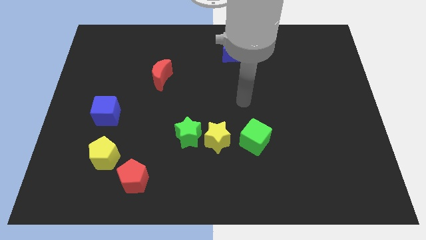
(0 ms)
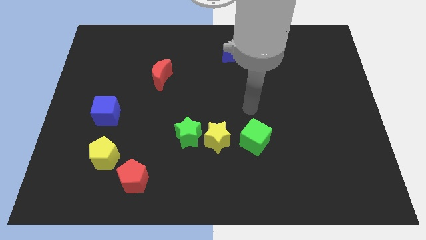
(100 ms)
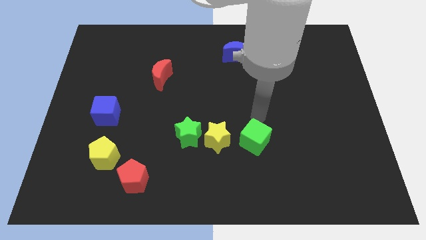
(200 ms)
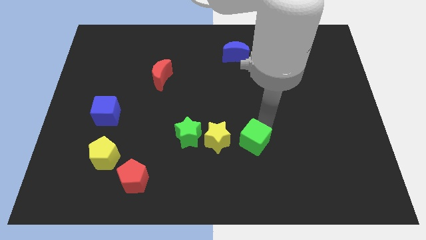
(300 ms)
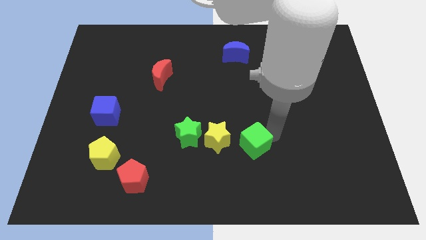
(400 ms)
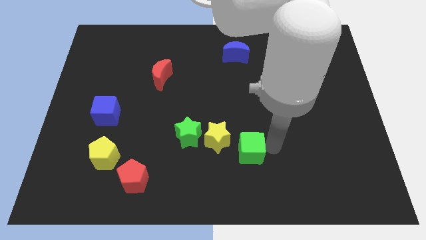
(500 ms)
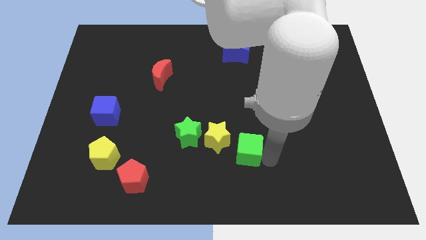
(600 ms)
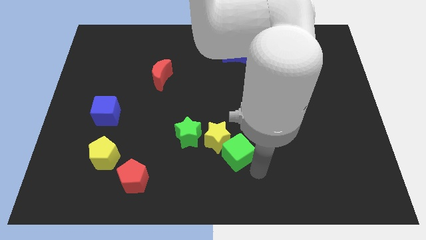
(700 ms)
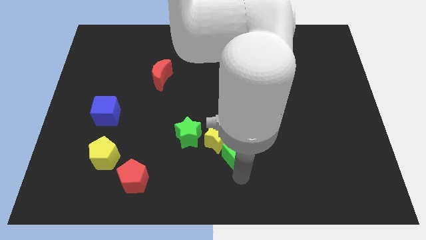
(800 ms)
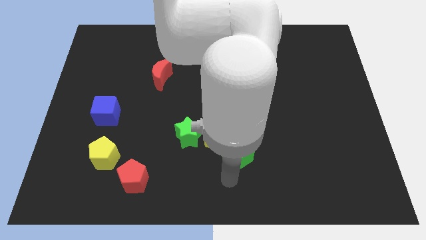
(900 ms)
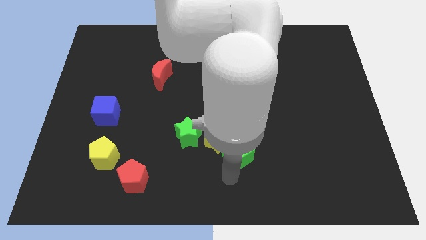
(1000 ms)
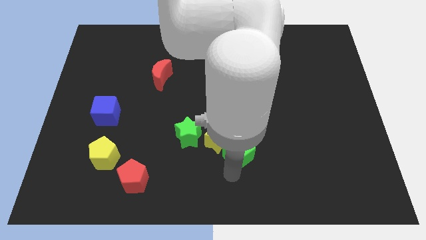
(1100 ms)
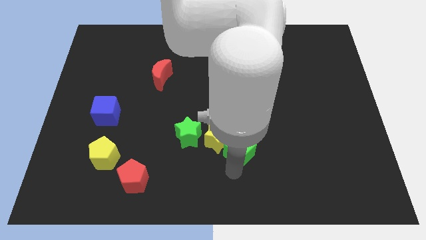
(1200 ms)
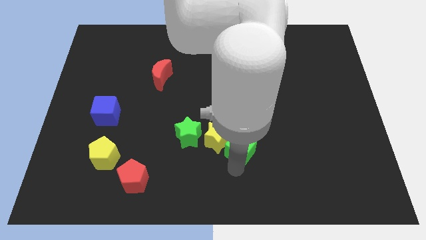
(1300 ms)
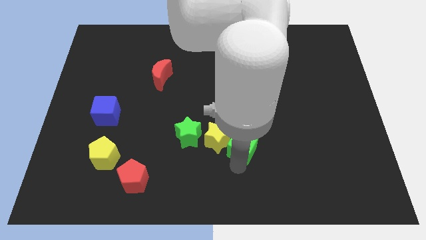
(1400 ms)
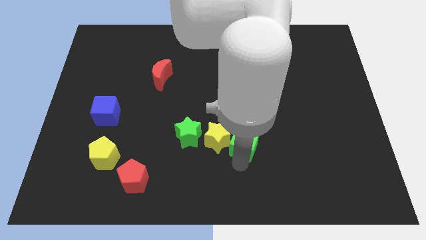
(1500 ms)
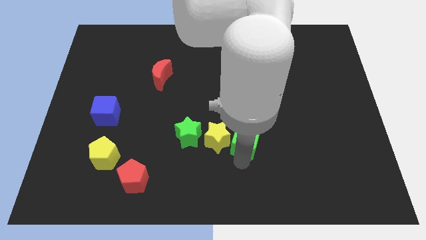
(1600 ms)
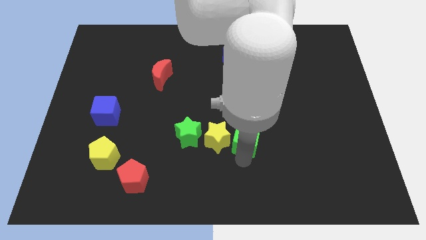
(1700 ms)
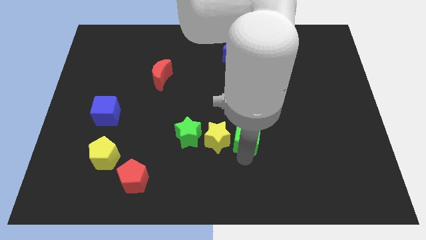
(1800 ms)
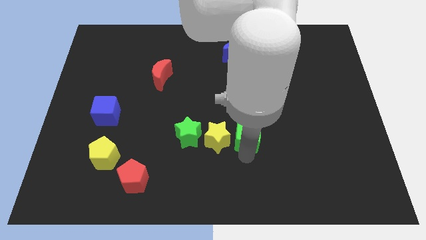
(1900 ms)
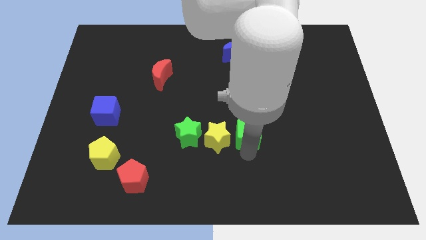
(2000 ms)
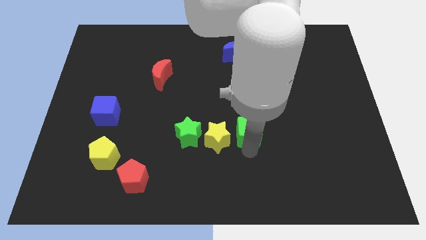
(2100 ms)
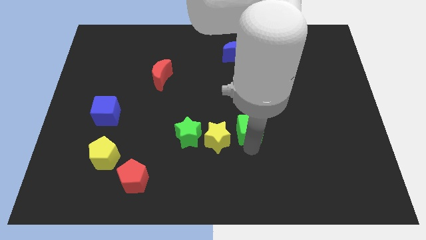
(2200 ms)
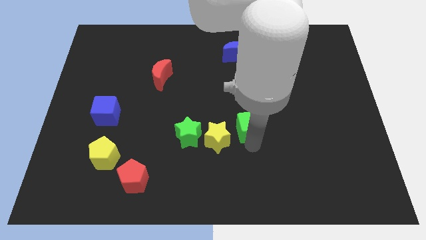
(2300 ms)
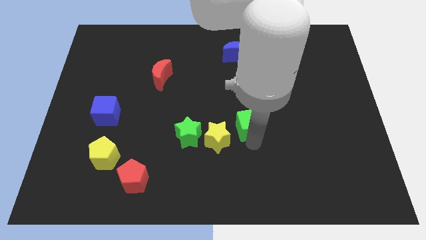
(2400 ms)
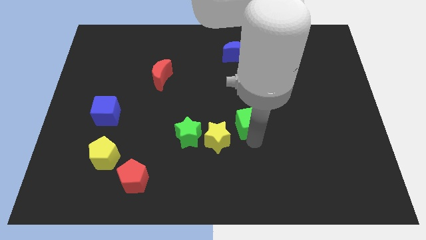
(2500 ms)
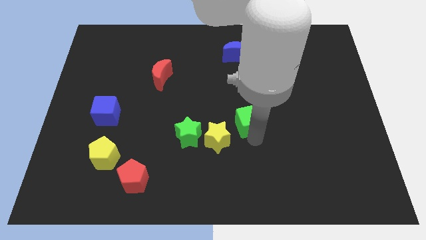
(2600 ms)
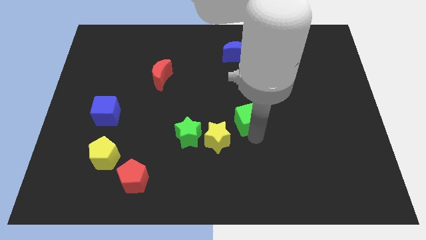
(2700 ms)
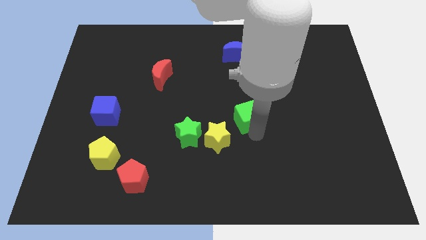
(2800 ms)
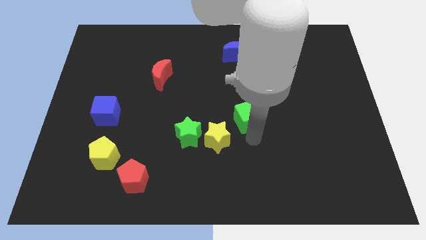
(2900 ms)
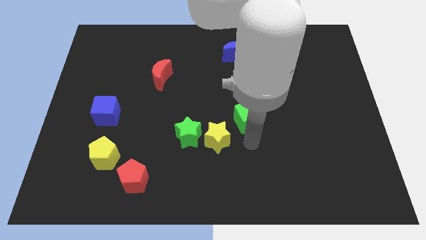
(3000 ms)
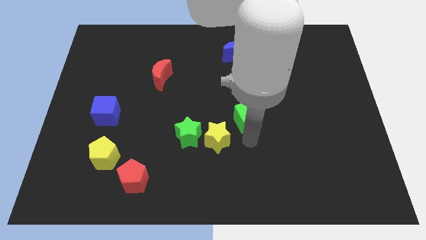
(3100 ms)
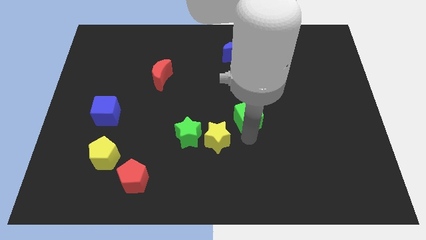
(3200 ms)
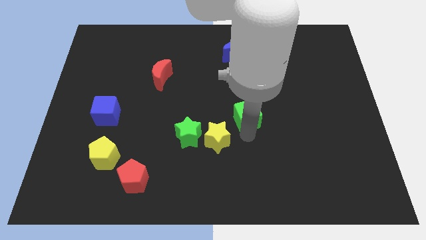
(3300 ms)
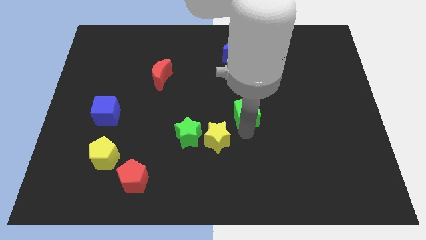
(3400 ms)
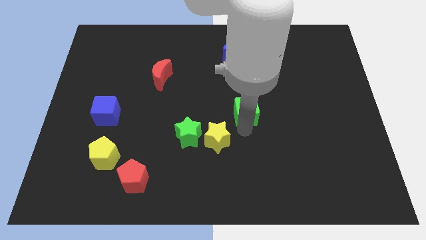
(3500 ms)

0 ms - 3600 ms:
push the green cube upwards a little bit

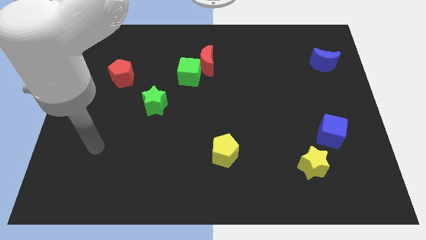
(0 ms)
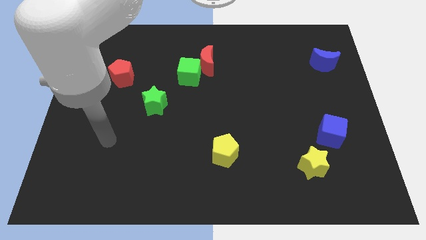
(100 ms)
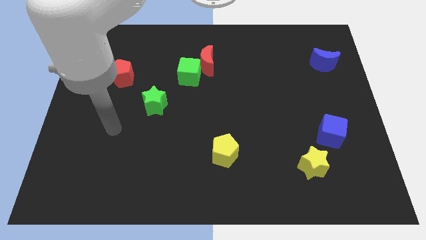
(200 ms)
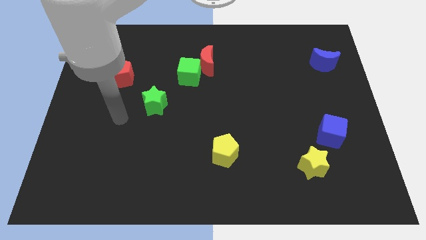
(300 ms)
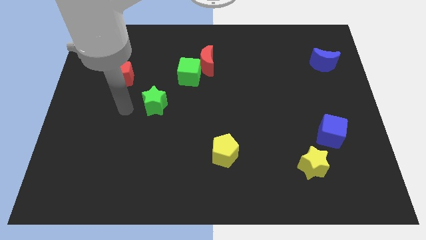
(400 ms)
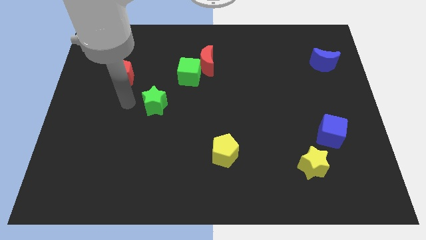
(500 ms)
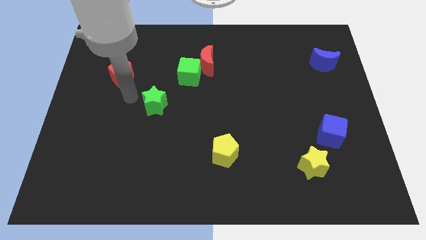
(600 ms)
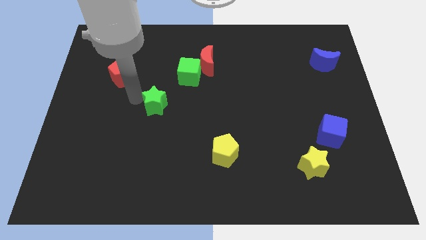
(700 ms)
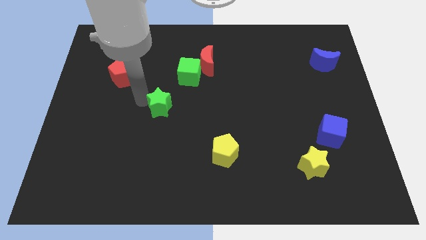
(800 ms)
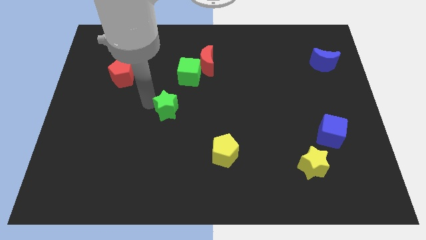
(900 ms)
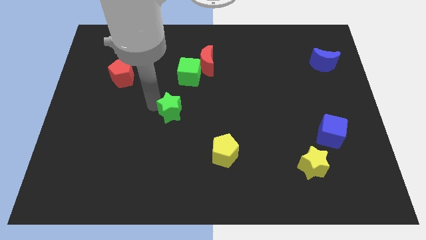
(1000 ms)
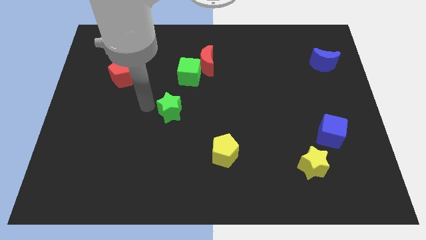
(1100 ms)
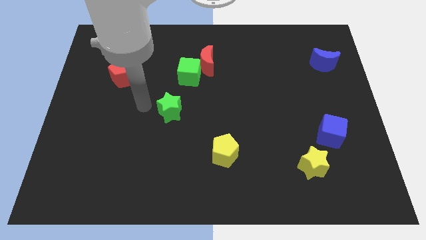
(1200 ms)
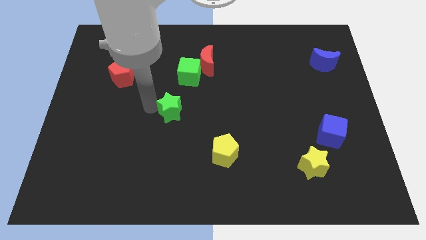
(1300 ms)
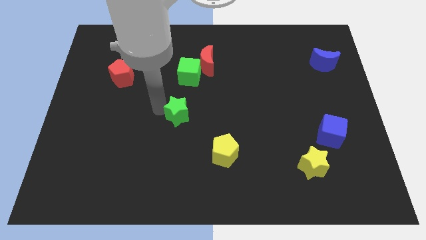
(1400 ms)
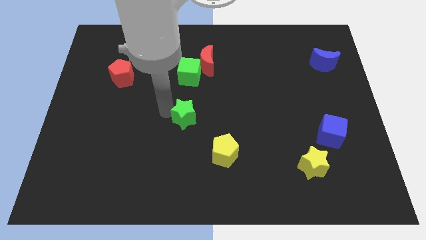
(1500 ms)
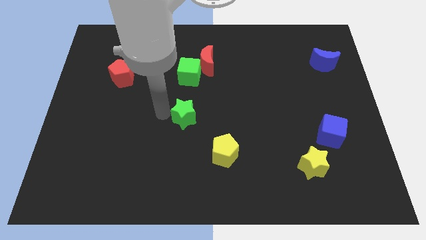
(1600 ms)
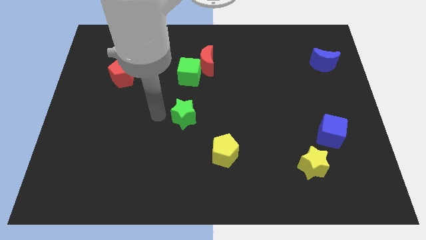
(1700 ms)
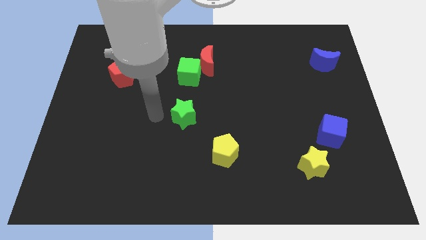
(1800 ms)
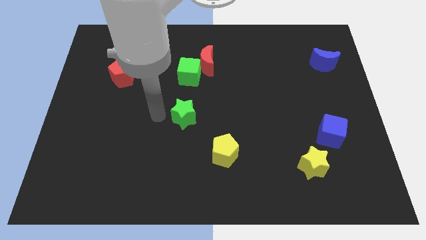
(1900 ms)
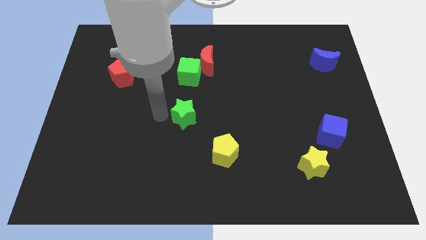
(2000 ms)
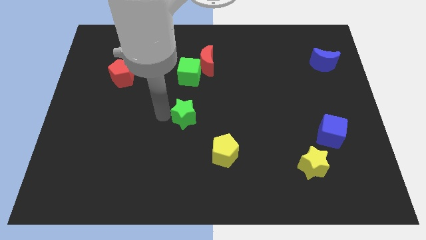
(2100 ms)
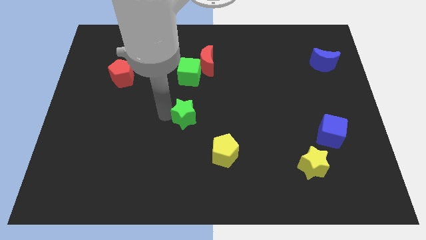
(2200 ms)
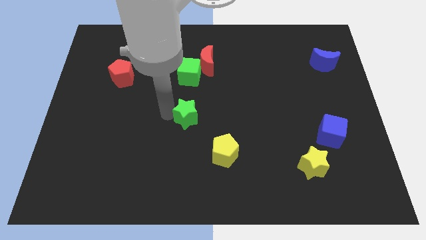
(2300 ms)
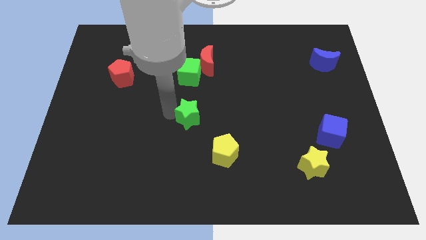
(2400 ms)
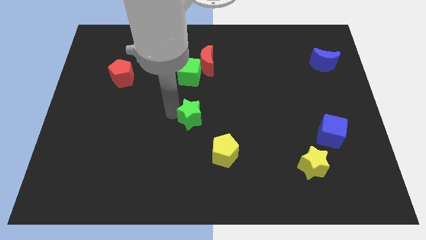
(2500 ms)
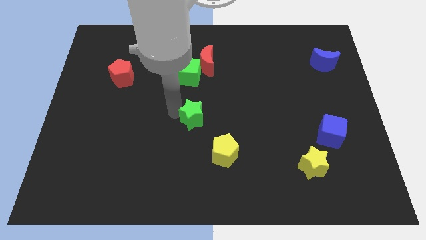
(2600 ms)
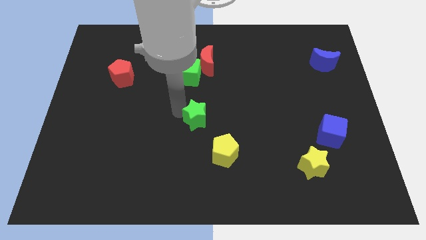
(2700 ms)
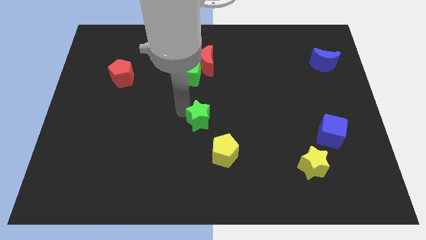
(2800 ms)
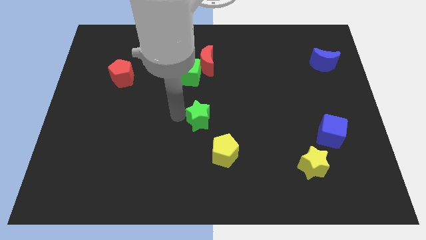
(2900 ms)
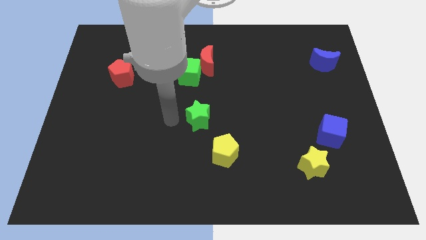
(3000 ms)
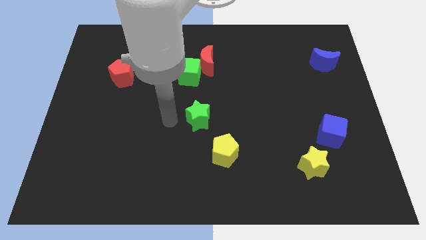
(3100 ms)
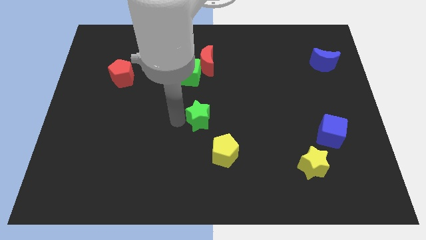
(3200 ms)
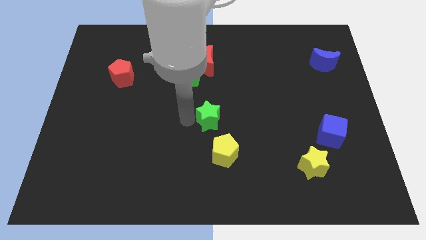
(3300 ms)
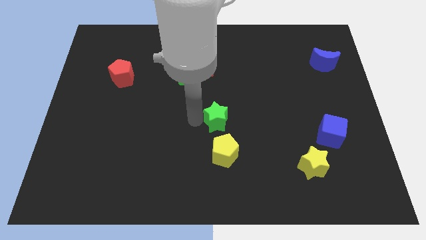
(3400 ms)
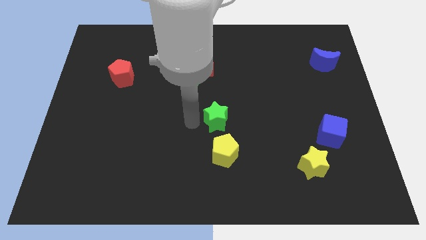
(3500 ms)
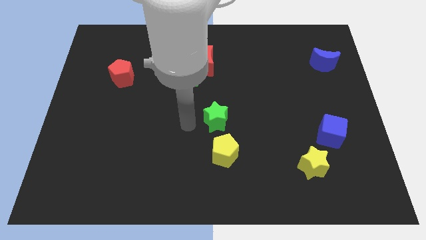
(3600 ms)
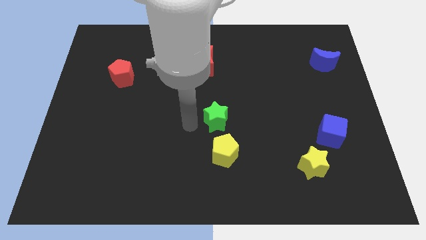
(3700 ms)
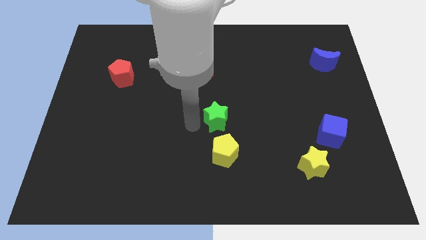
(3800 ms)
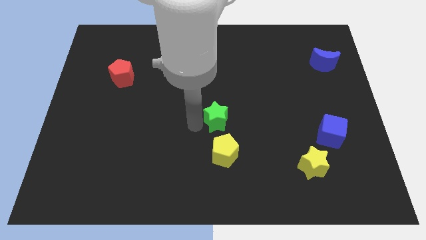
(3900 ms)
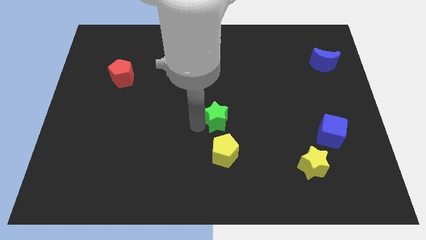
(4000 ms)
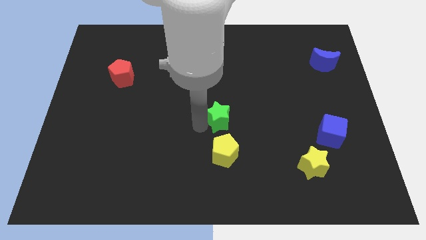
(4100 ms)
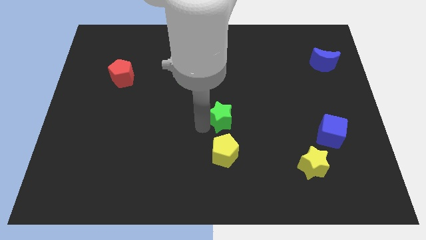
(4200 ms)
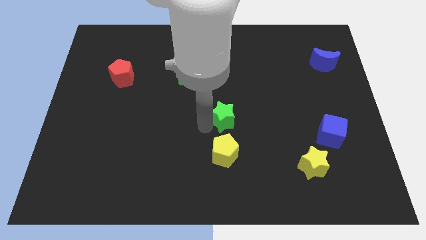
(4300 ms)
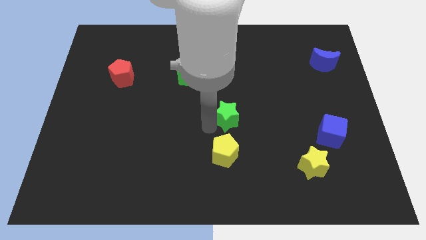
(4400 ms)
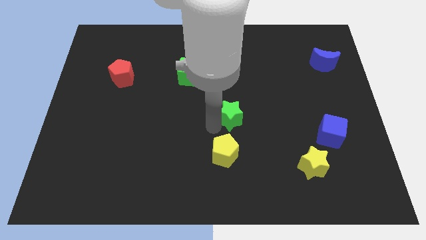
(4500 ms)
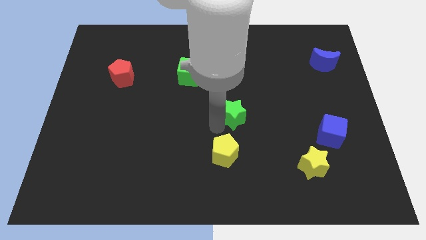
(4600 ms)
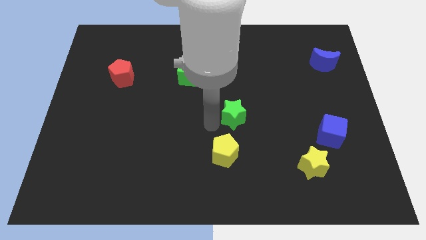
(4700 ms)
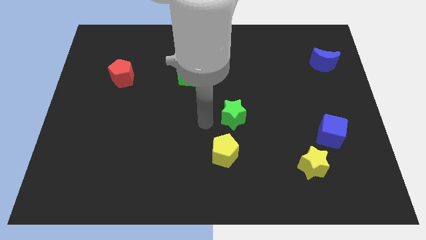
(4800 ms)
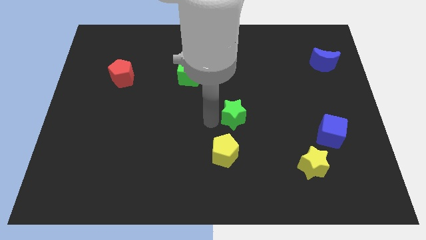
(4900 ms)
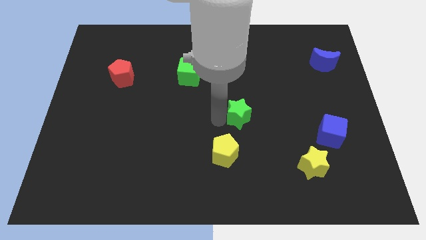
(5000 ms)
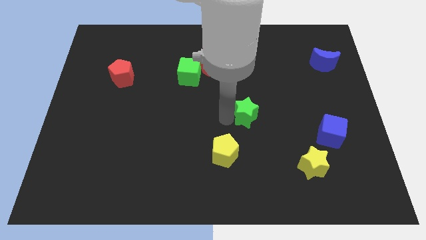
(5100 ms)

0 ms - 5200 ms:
move the green star to the right
